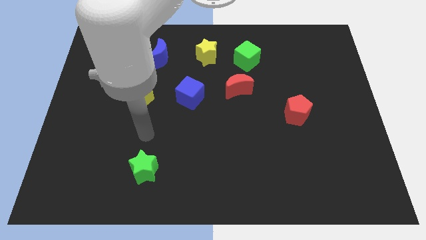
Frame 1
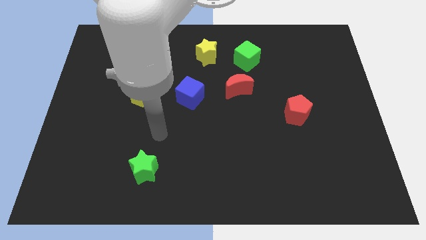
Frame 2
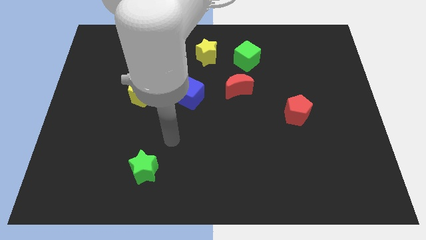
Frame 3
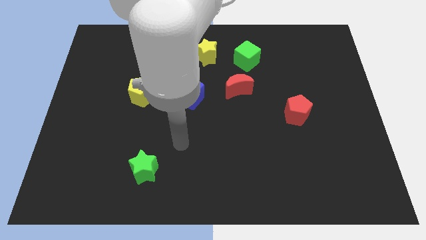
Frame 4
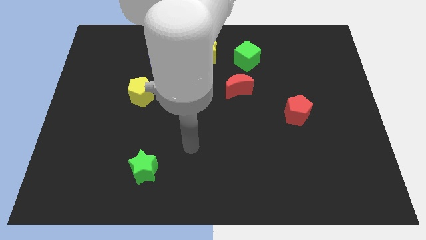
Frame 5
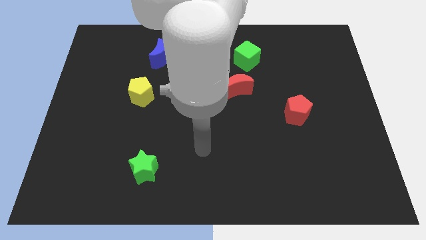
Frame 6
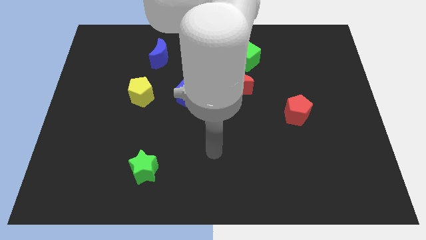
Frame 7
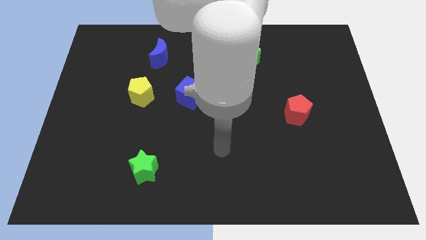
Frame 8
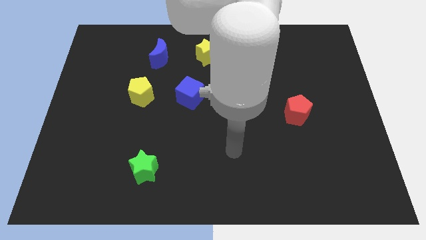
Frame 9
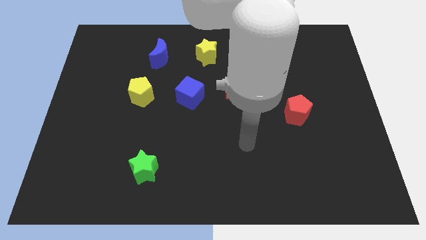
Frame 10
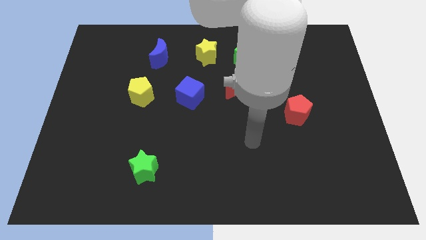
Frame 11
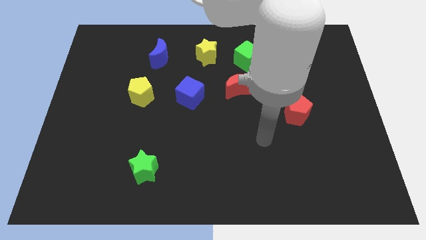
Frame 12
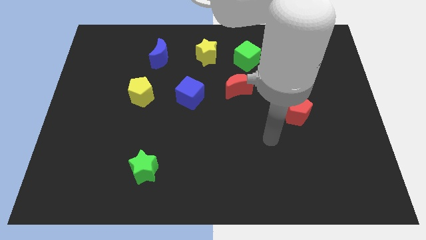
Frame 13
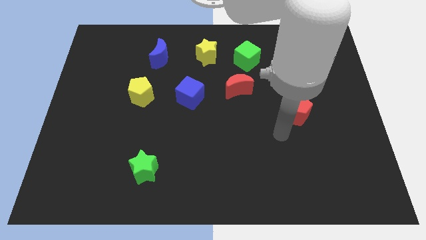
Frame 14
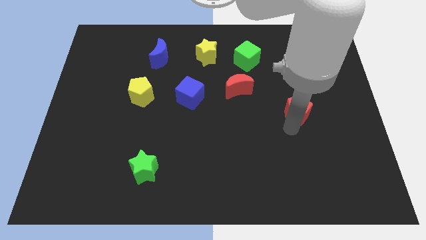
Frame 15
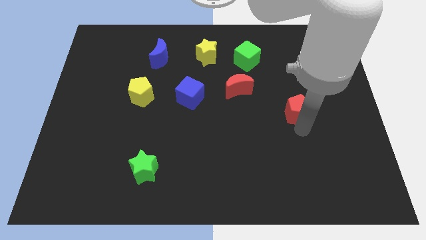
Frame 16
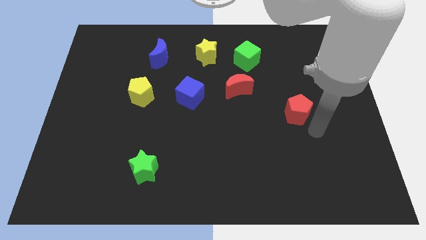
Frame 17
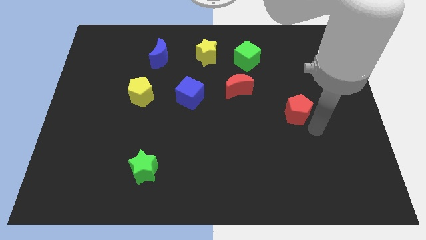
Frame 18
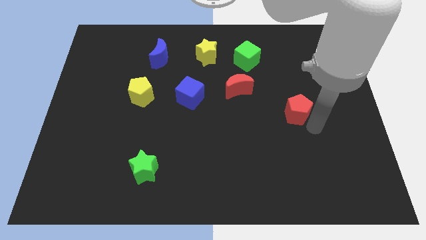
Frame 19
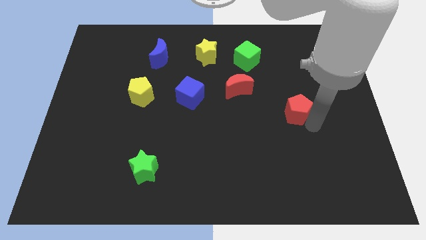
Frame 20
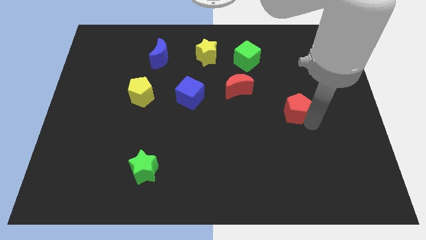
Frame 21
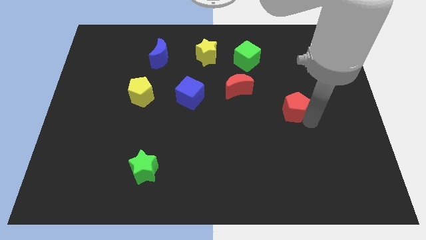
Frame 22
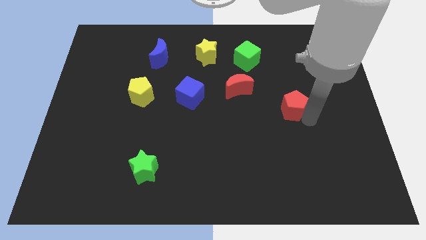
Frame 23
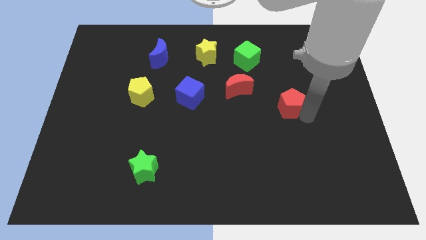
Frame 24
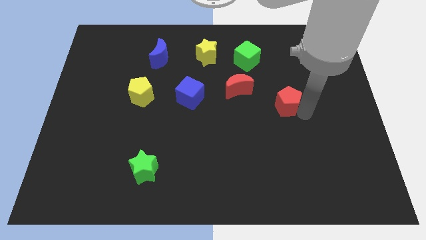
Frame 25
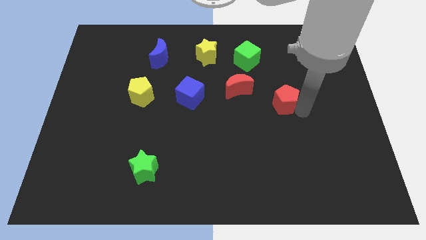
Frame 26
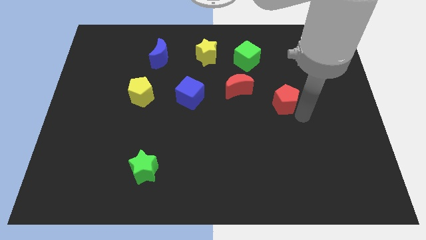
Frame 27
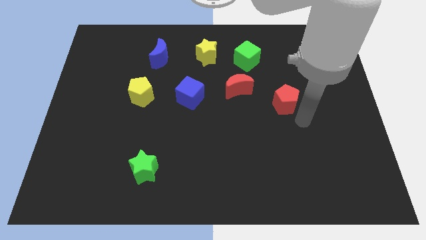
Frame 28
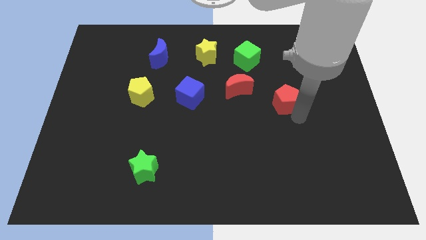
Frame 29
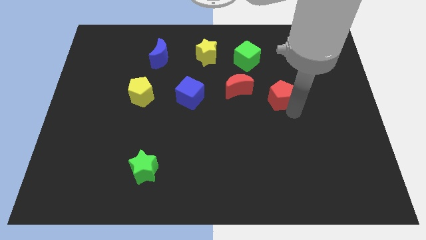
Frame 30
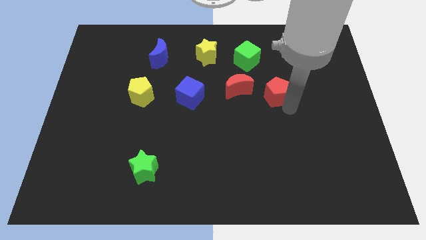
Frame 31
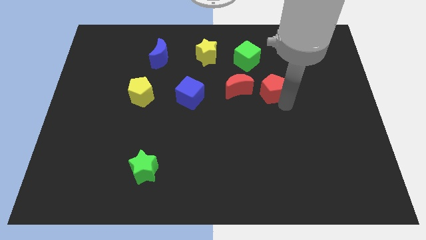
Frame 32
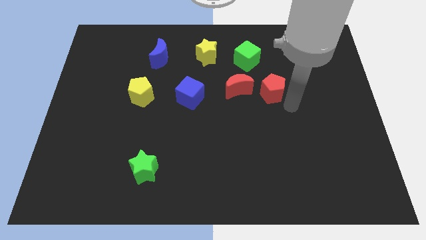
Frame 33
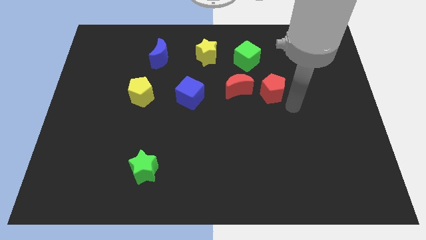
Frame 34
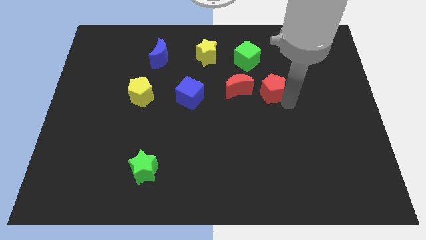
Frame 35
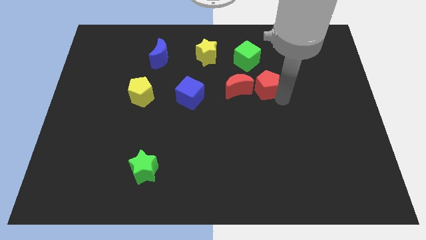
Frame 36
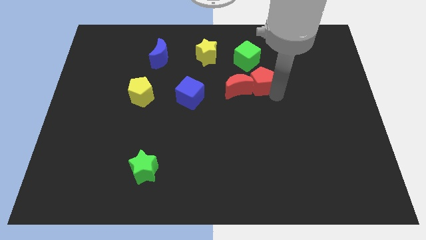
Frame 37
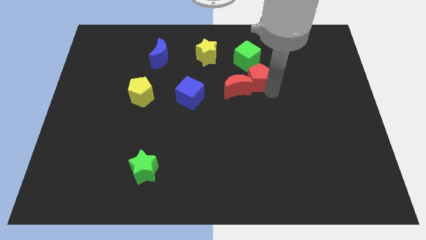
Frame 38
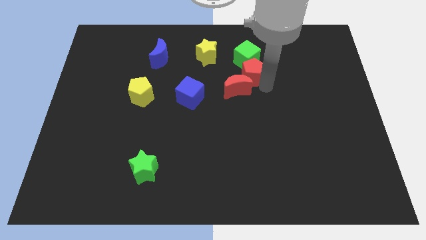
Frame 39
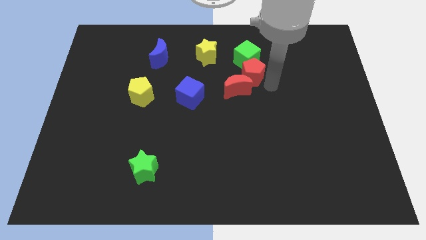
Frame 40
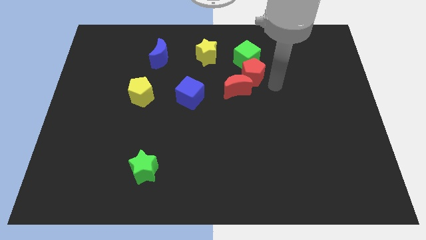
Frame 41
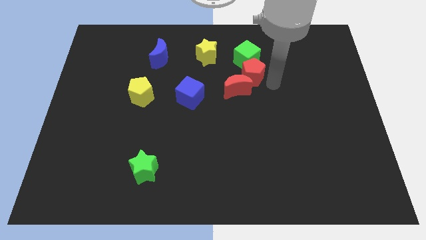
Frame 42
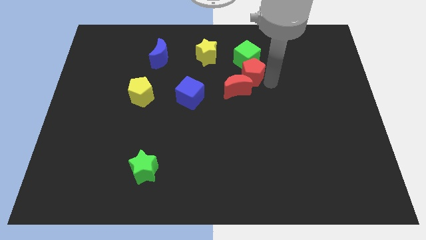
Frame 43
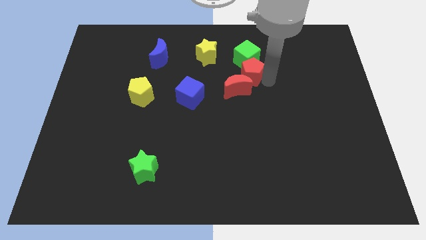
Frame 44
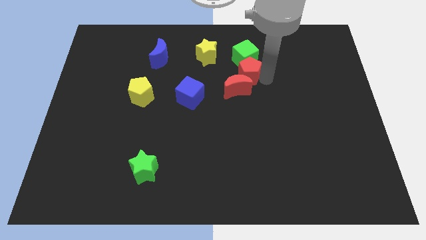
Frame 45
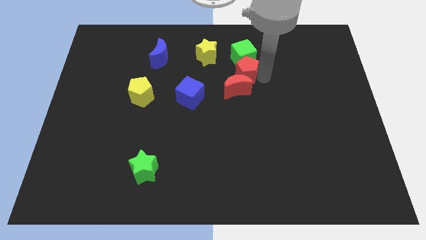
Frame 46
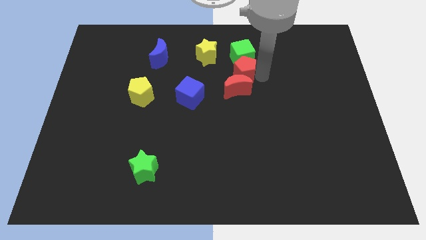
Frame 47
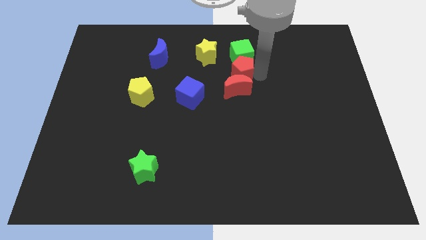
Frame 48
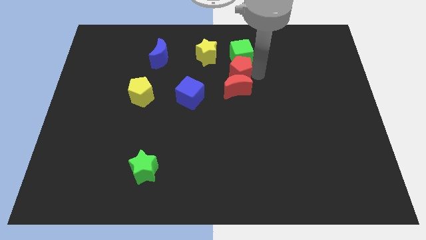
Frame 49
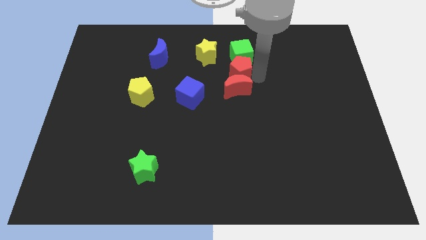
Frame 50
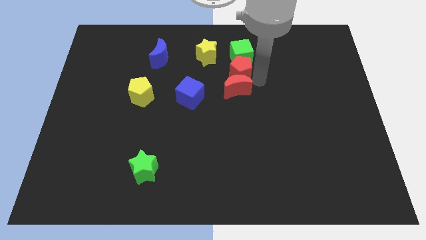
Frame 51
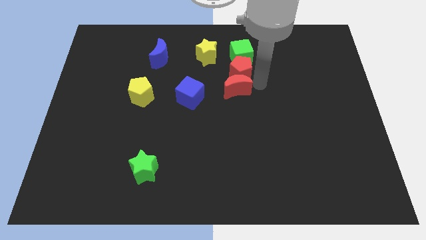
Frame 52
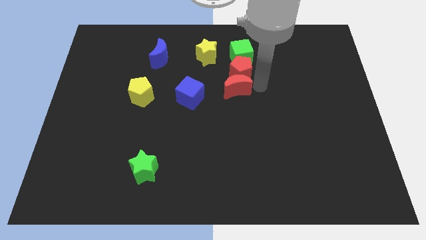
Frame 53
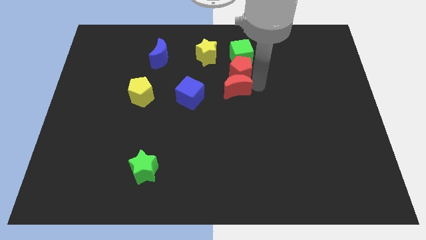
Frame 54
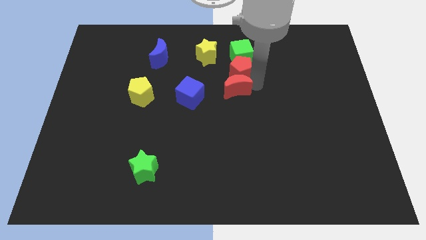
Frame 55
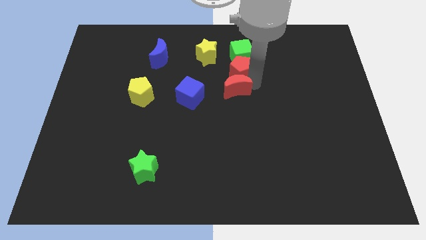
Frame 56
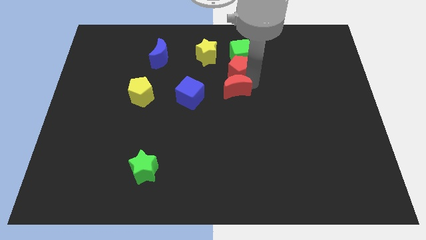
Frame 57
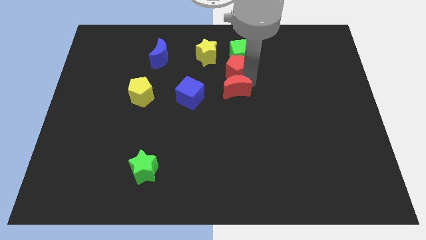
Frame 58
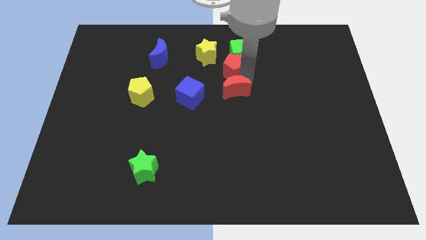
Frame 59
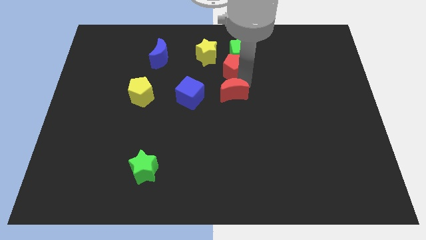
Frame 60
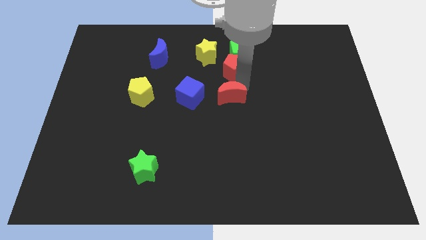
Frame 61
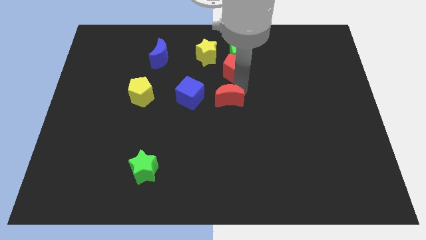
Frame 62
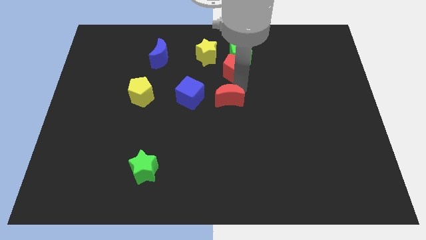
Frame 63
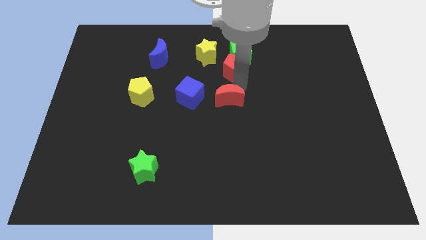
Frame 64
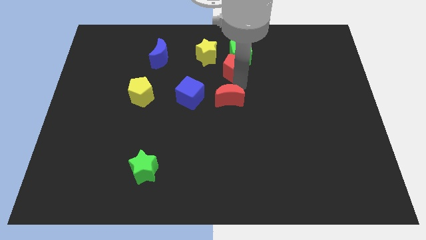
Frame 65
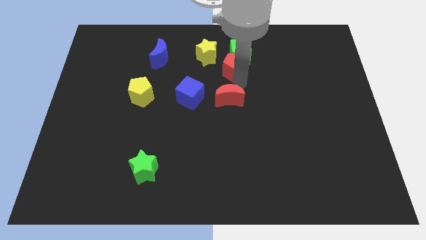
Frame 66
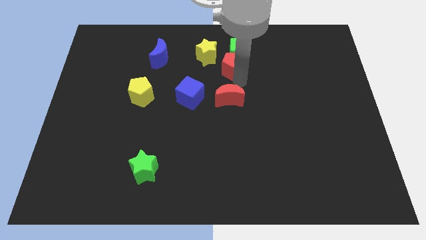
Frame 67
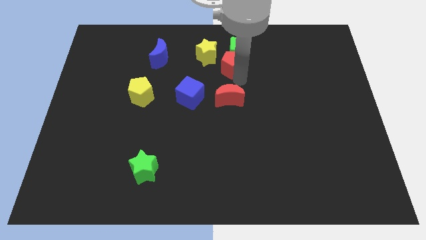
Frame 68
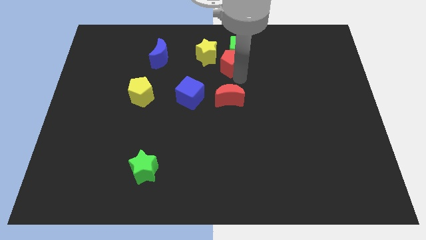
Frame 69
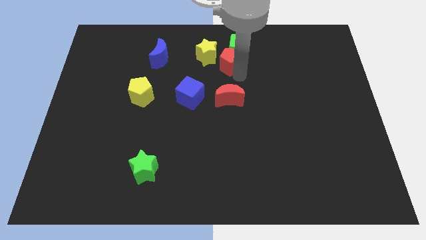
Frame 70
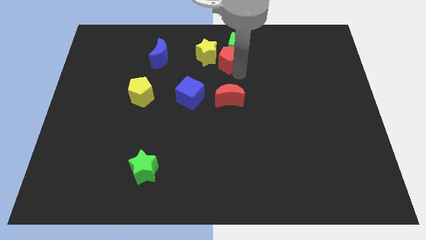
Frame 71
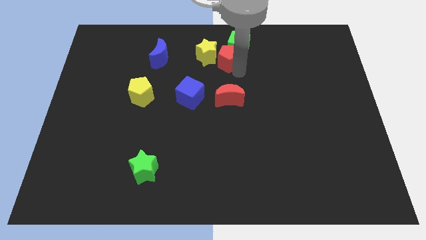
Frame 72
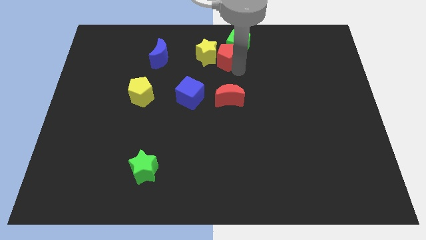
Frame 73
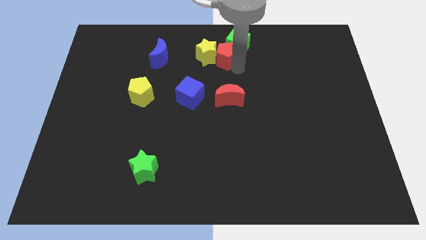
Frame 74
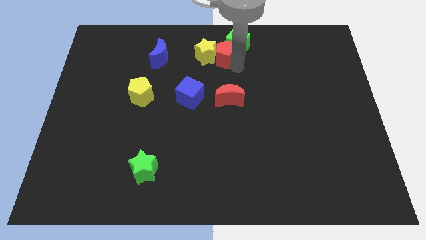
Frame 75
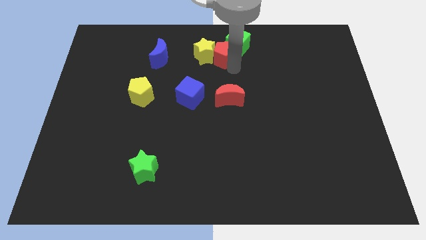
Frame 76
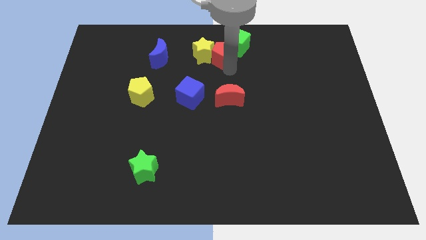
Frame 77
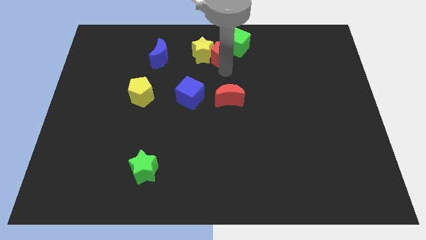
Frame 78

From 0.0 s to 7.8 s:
push the red pentagon to the top side
